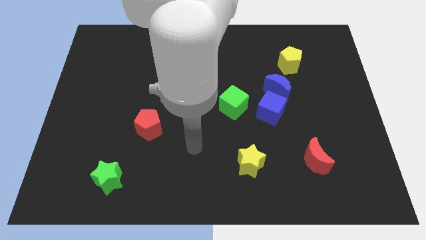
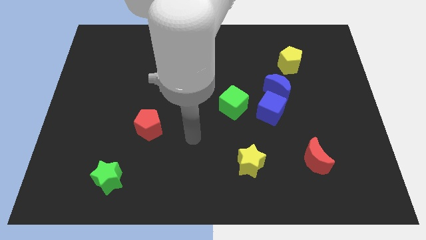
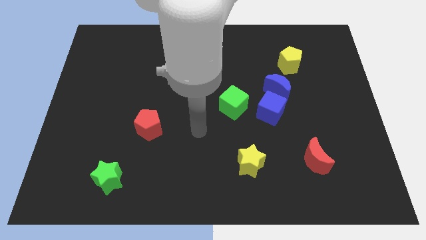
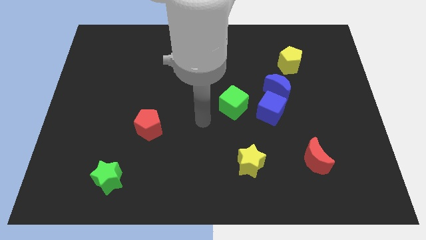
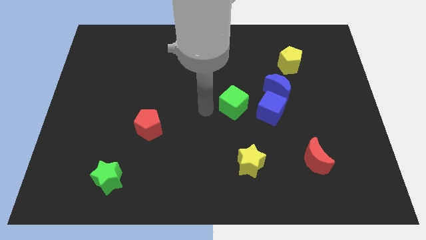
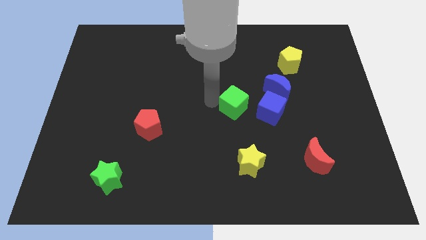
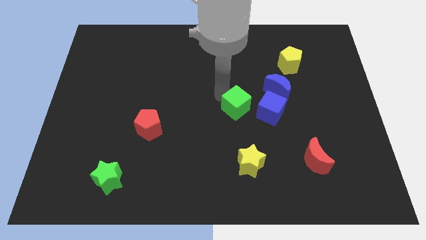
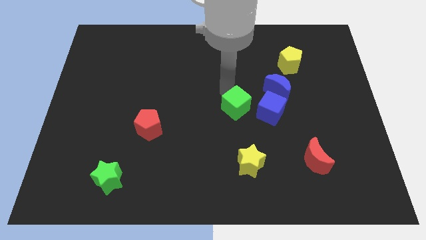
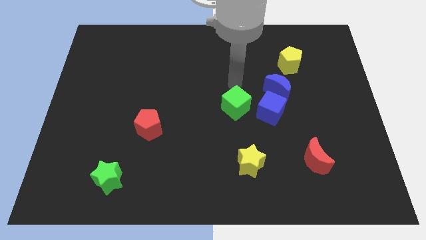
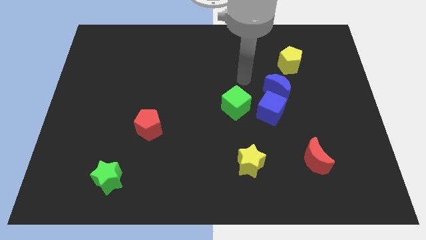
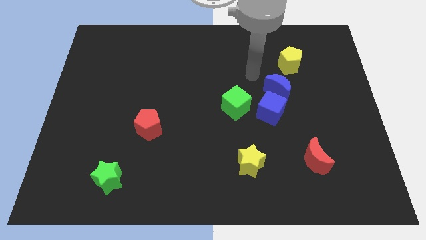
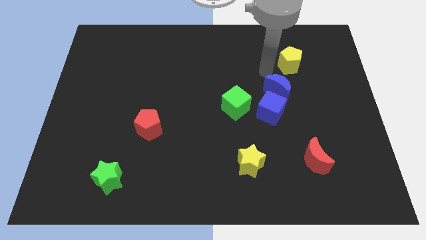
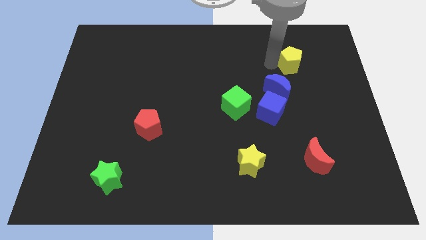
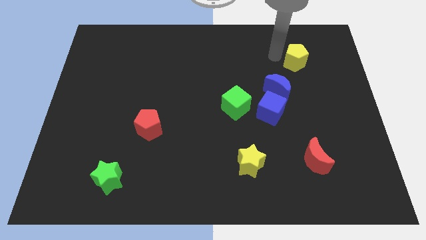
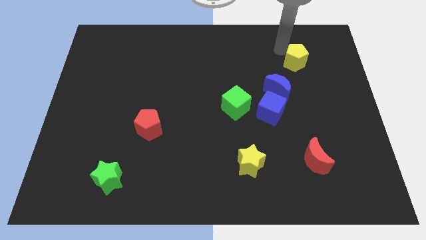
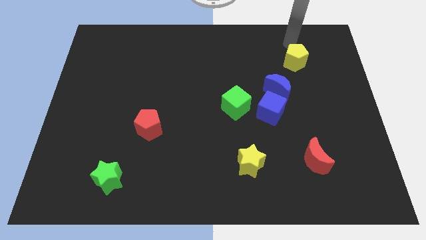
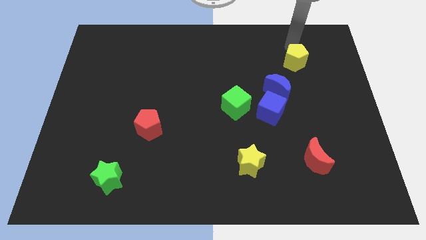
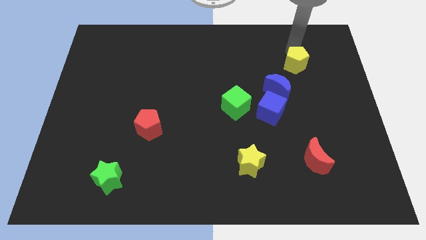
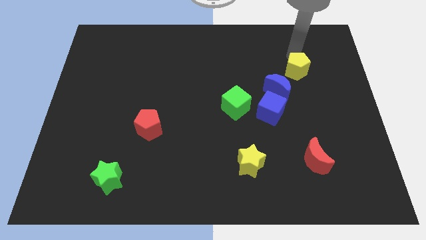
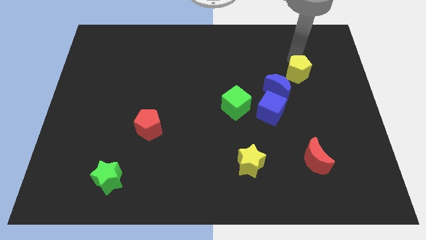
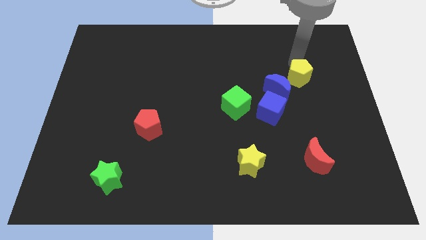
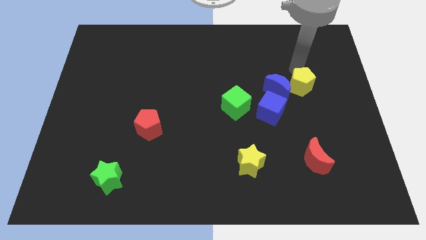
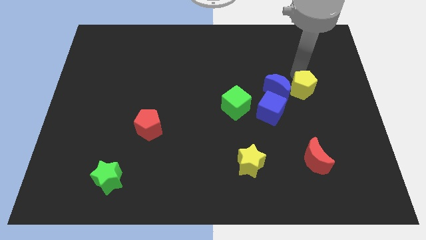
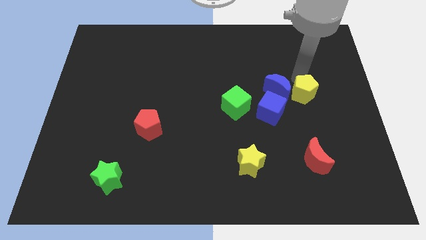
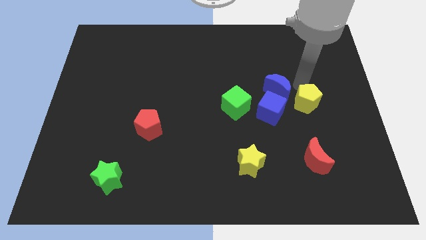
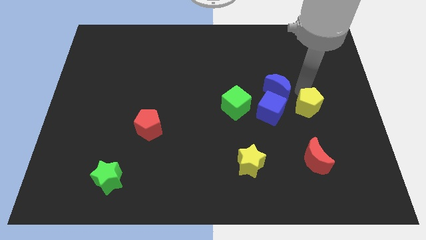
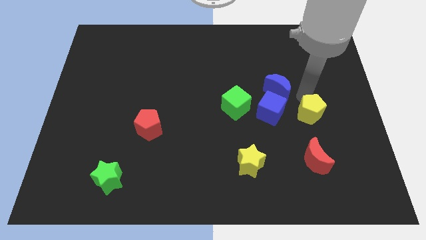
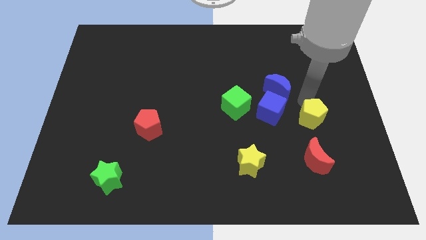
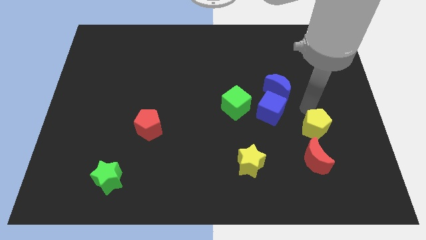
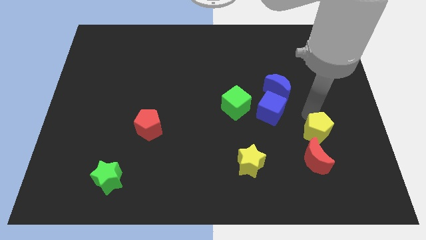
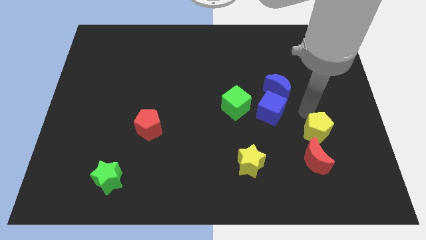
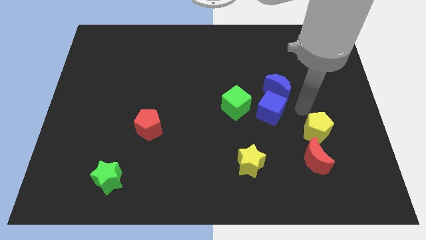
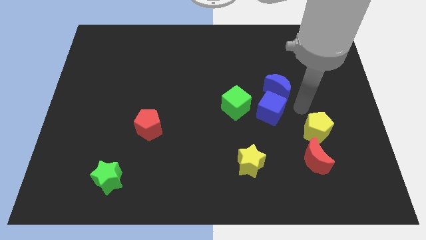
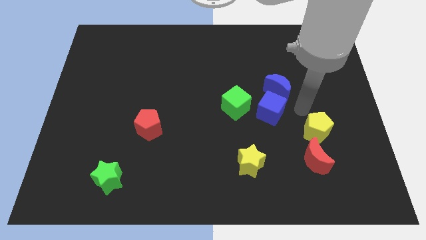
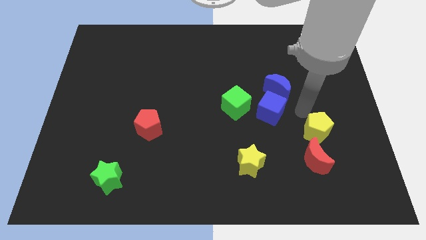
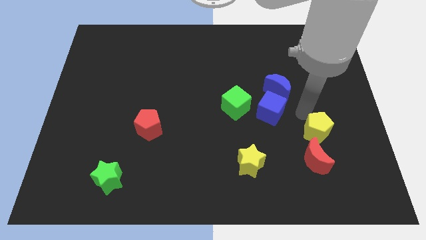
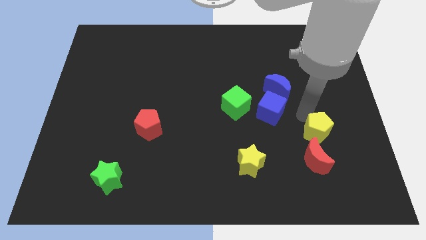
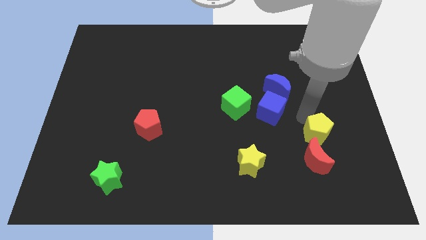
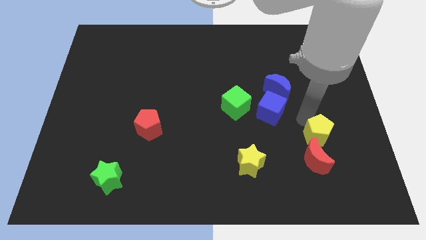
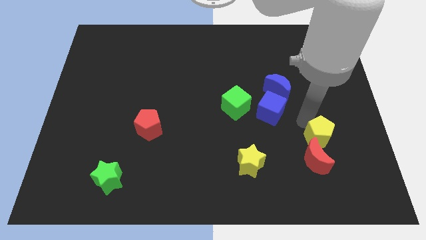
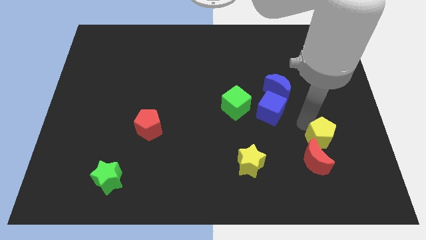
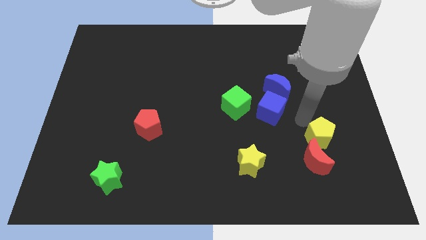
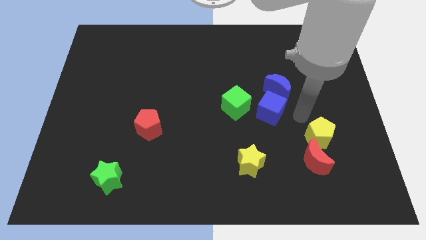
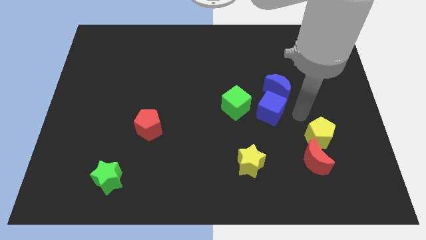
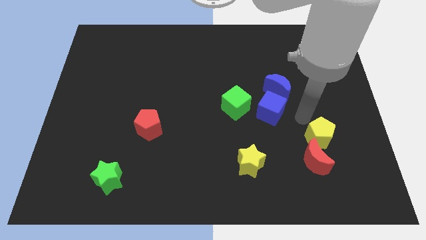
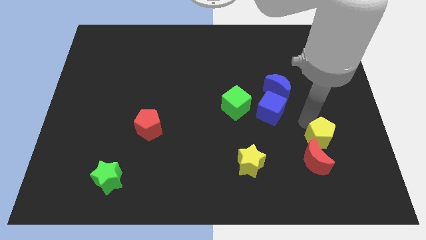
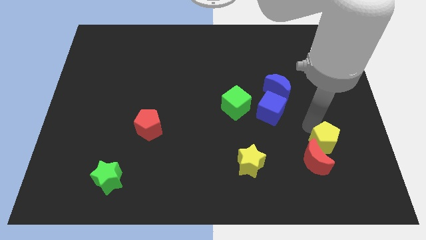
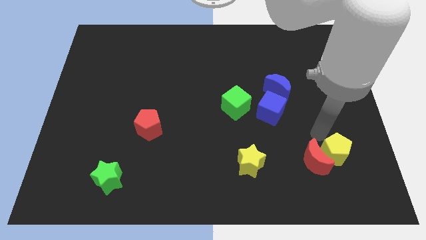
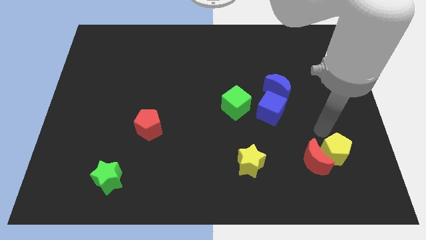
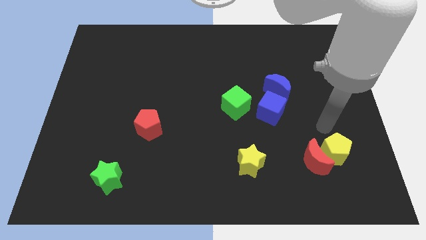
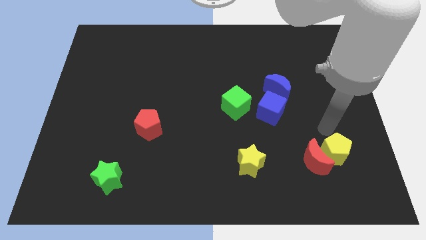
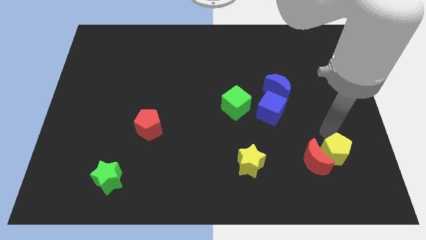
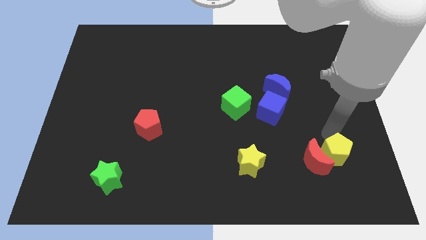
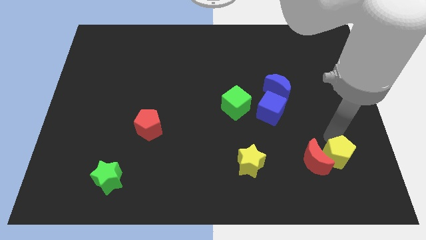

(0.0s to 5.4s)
put the yellow pentagon to the bottom right side of the red moon

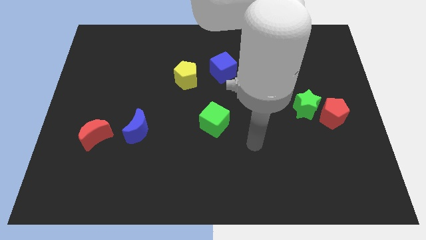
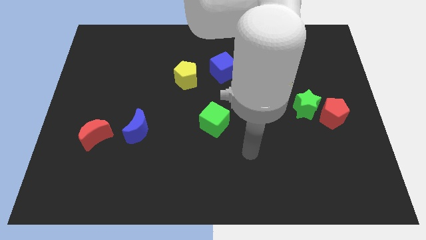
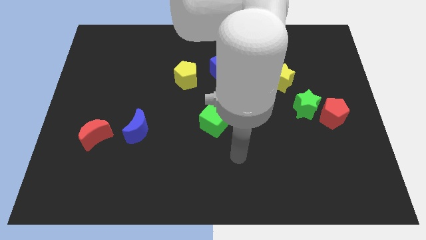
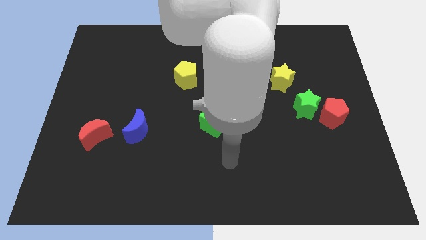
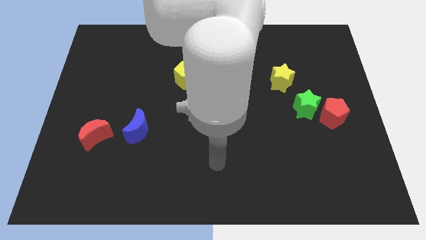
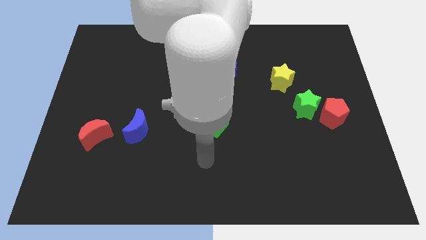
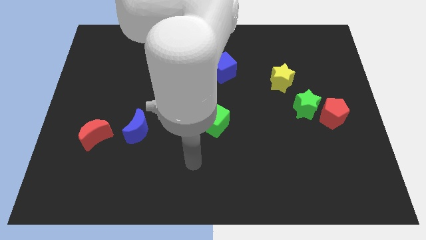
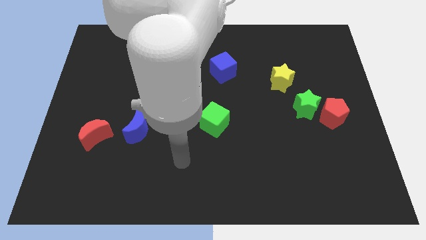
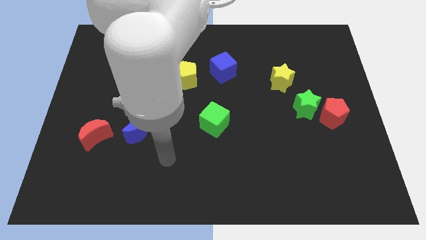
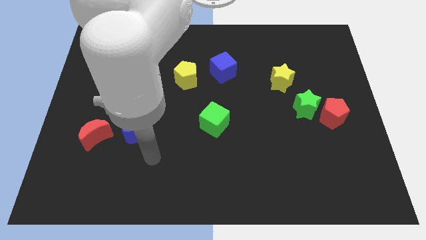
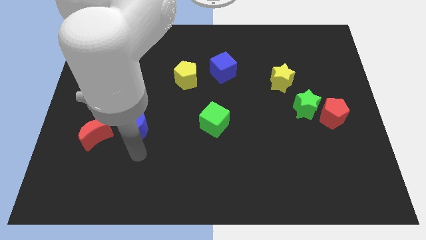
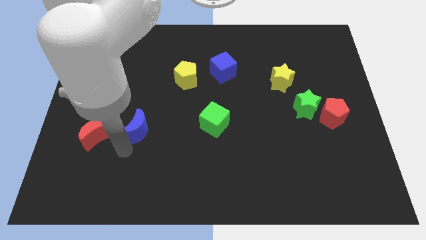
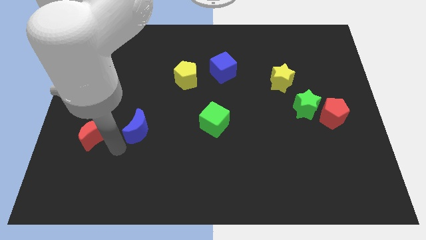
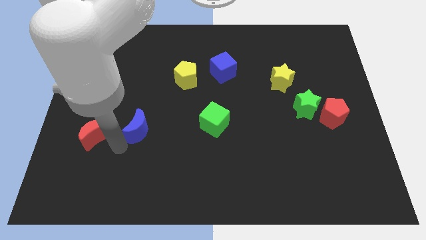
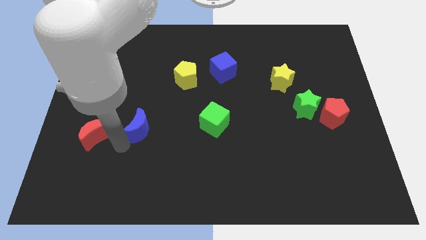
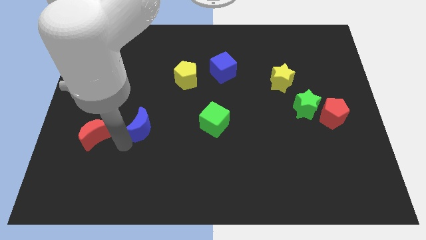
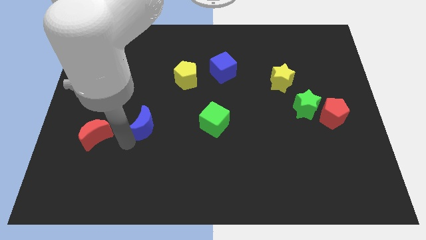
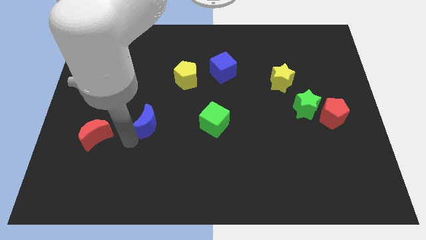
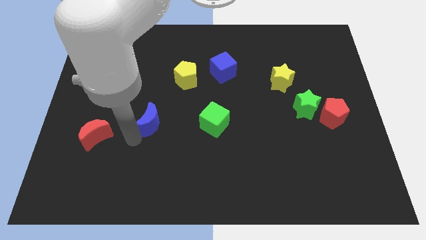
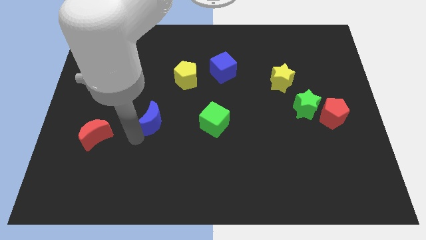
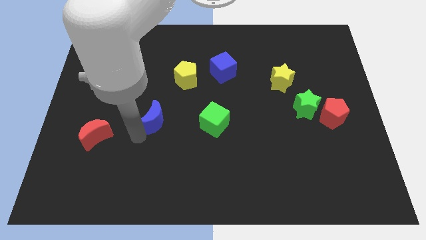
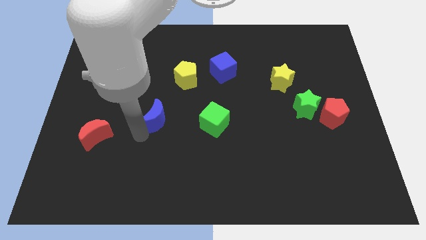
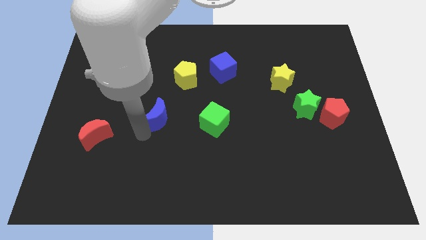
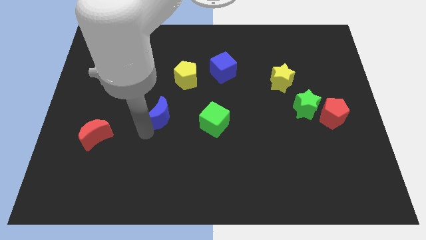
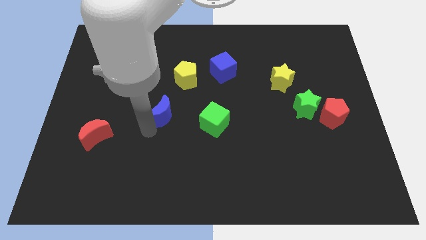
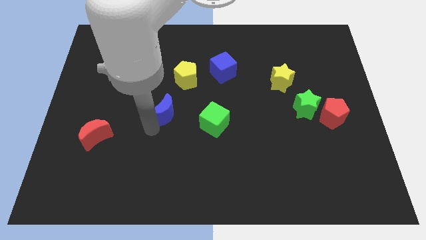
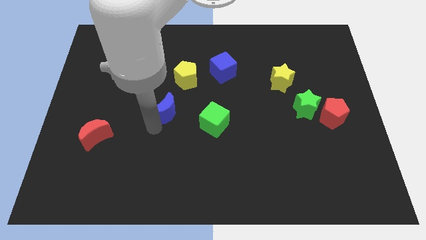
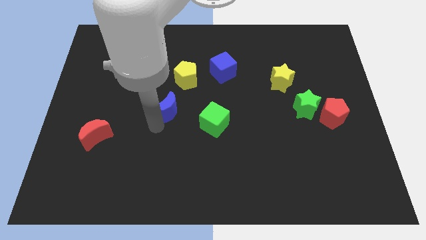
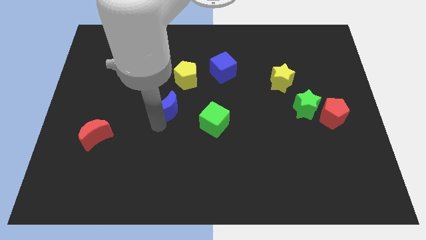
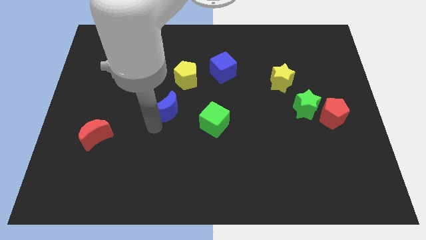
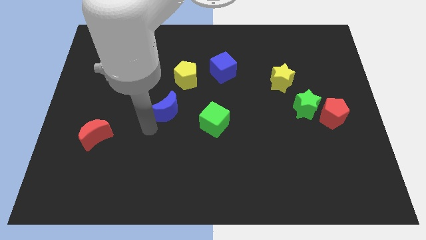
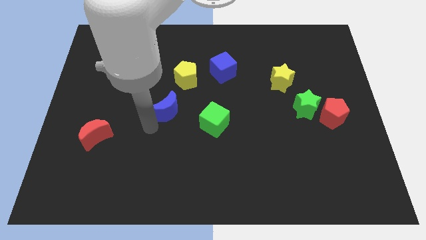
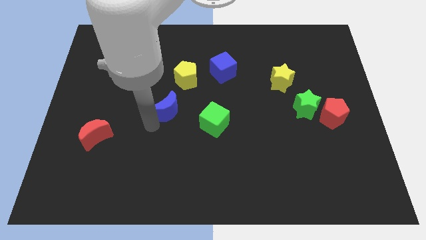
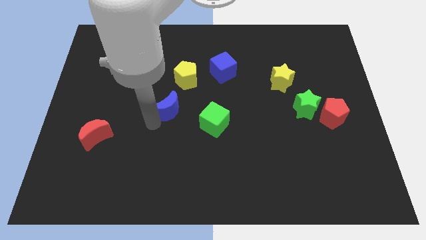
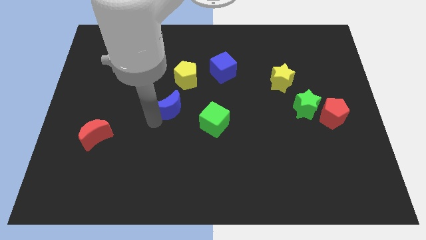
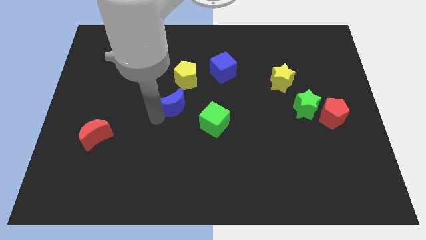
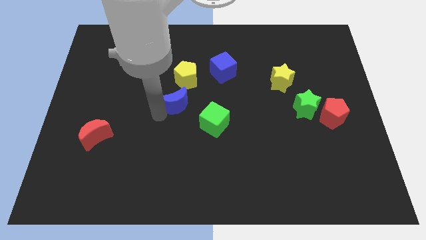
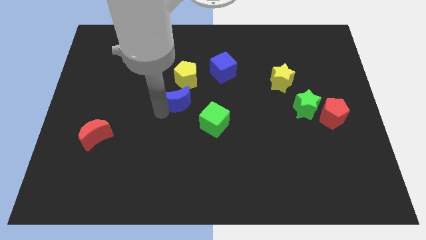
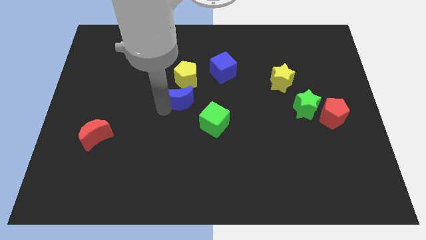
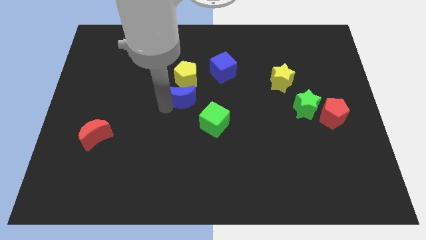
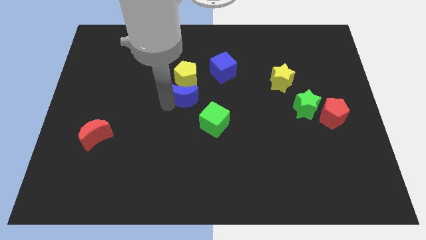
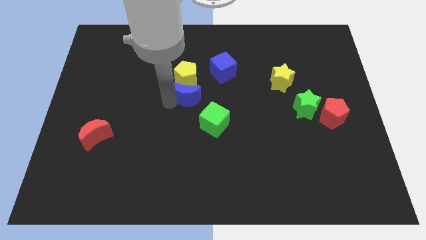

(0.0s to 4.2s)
move the blue moon to the bottom left of the blue cube
